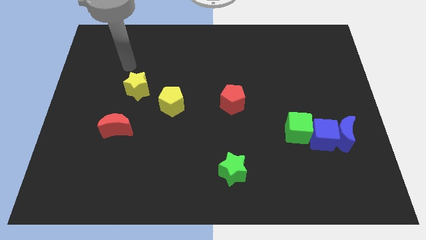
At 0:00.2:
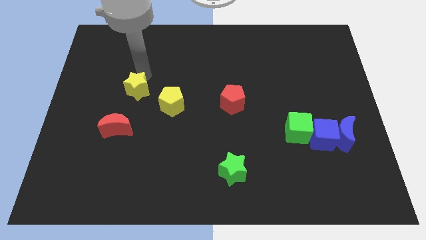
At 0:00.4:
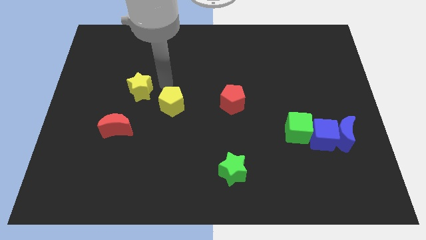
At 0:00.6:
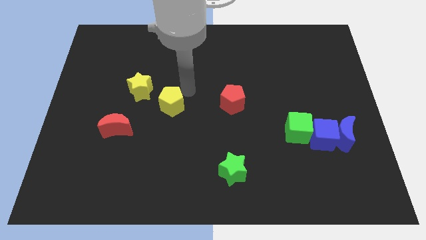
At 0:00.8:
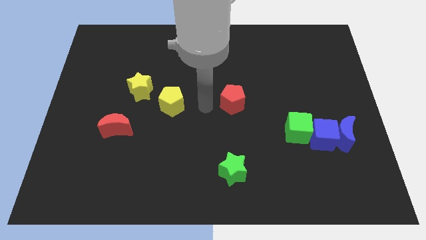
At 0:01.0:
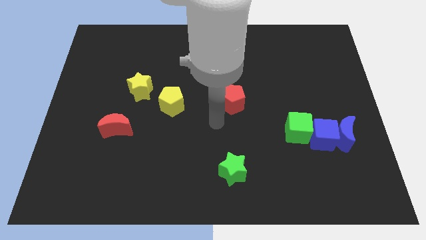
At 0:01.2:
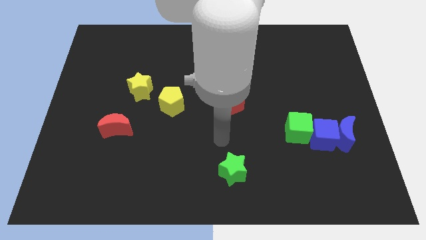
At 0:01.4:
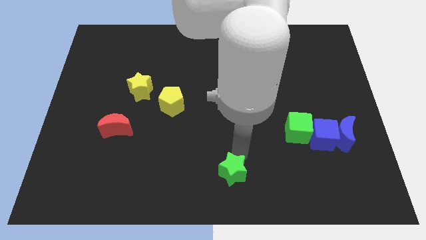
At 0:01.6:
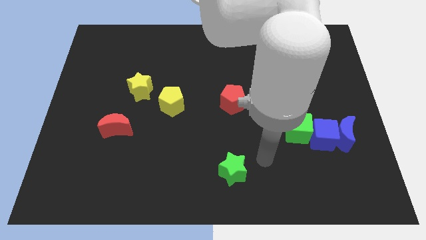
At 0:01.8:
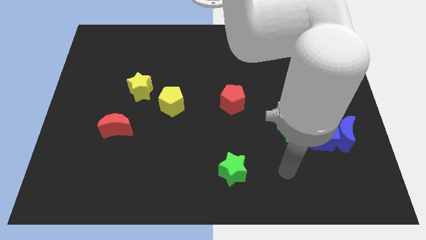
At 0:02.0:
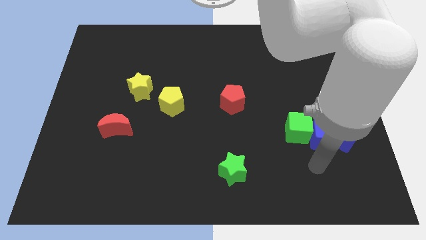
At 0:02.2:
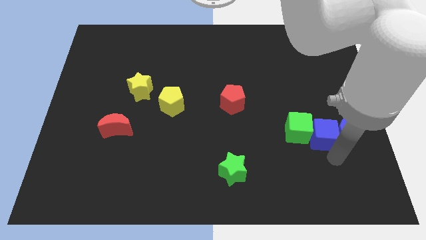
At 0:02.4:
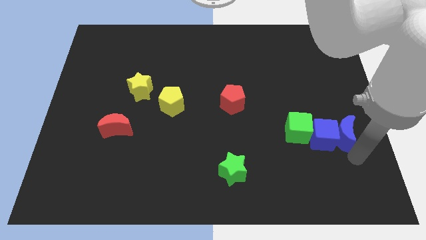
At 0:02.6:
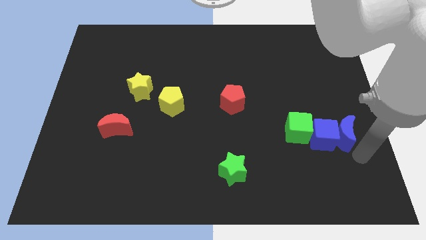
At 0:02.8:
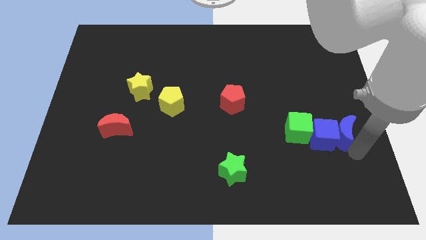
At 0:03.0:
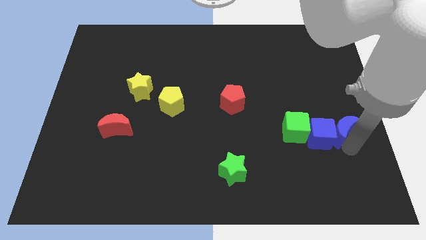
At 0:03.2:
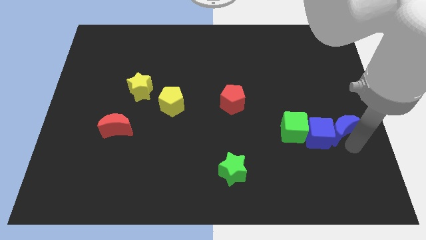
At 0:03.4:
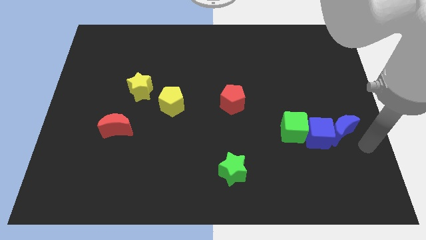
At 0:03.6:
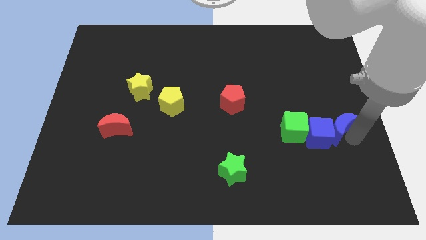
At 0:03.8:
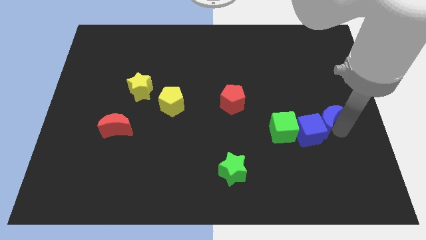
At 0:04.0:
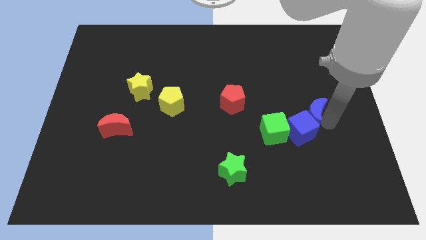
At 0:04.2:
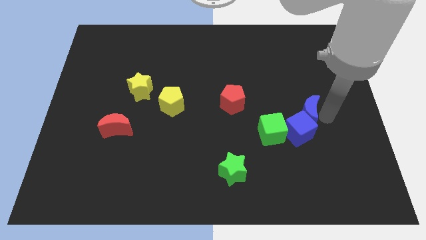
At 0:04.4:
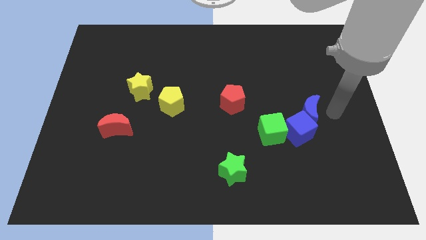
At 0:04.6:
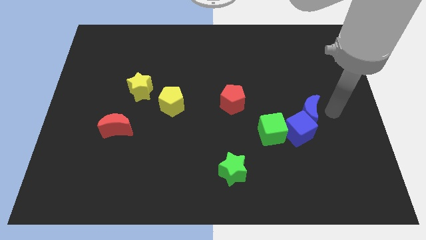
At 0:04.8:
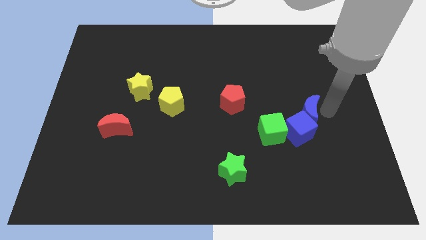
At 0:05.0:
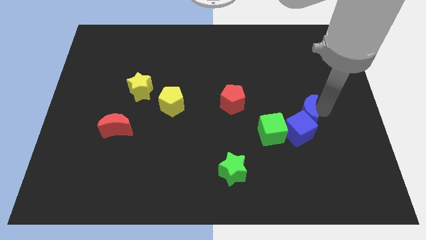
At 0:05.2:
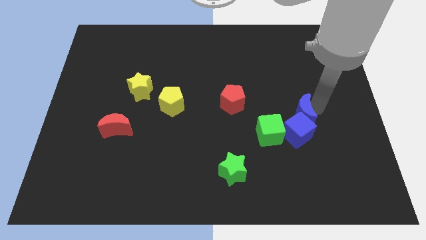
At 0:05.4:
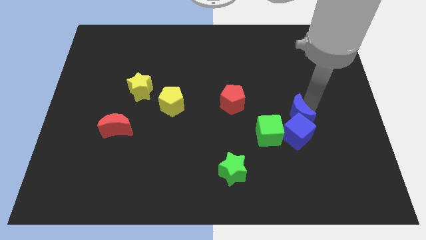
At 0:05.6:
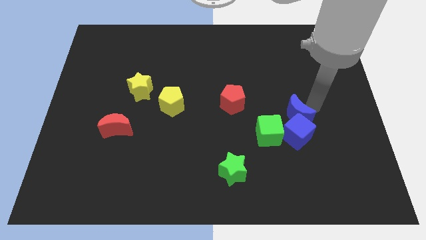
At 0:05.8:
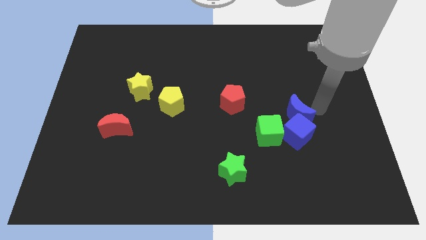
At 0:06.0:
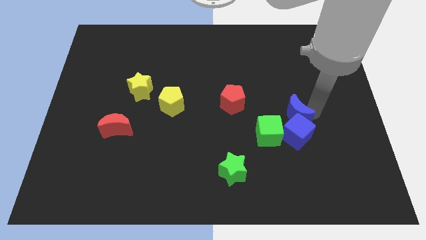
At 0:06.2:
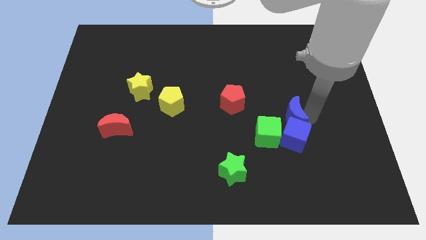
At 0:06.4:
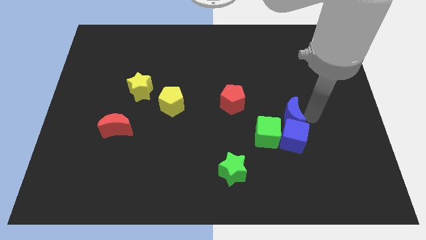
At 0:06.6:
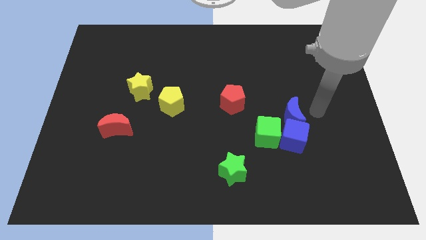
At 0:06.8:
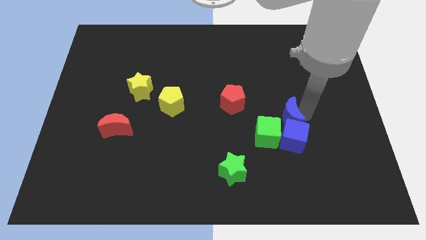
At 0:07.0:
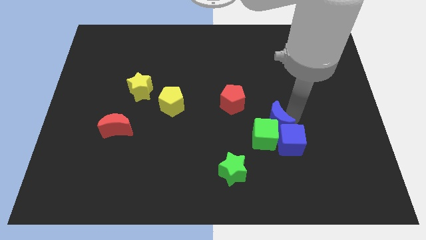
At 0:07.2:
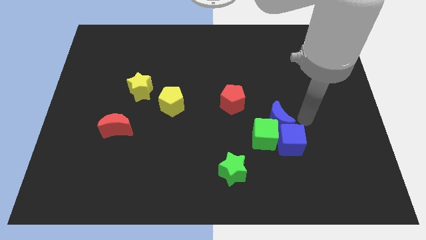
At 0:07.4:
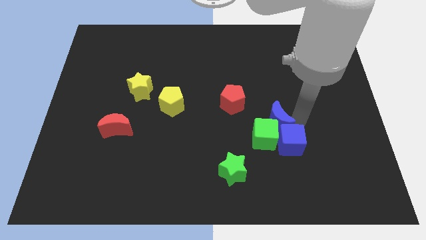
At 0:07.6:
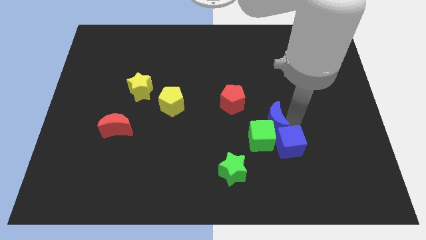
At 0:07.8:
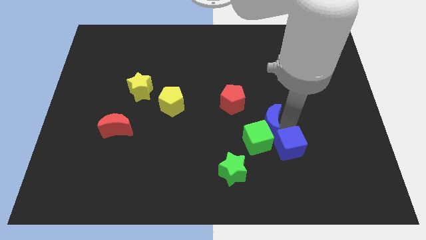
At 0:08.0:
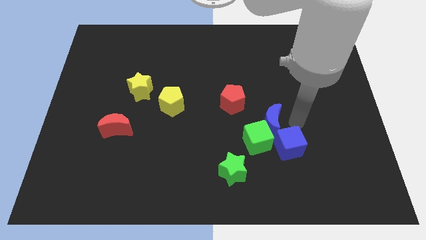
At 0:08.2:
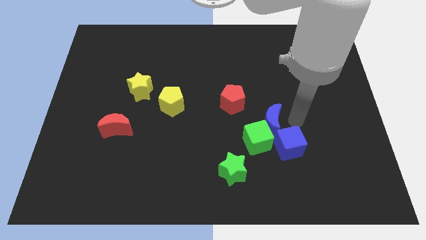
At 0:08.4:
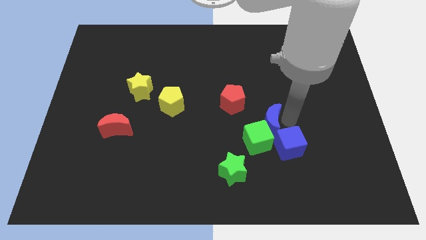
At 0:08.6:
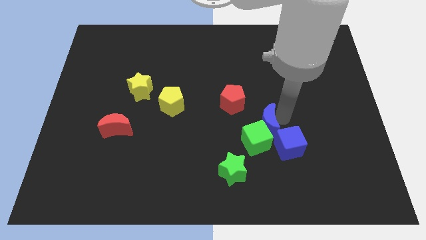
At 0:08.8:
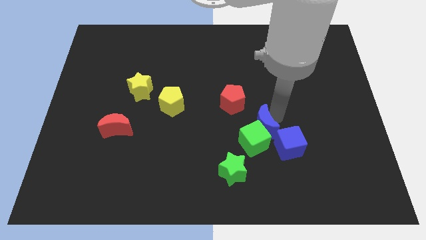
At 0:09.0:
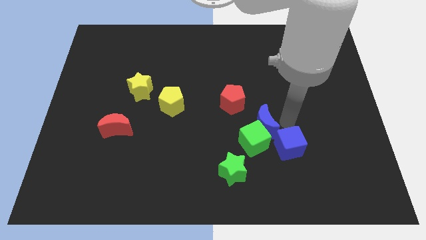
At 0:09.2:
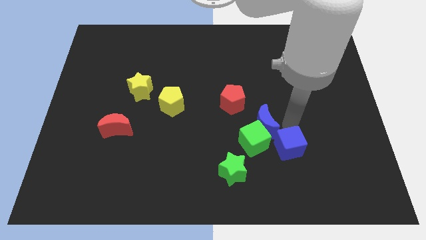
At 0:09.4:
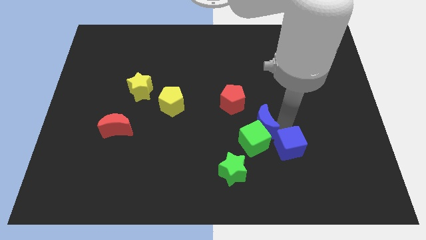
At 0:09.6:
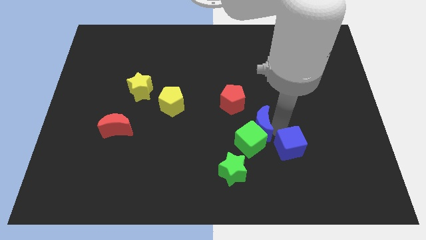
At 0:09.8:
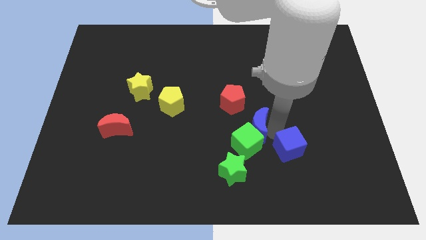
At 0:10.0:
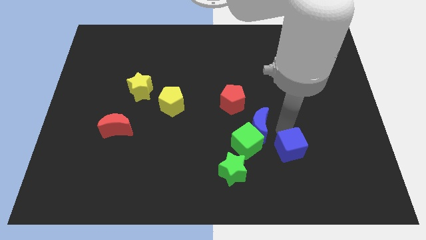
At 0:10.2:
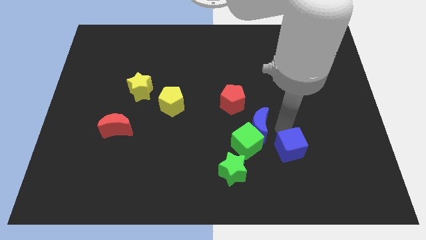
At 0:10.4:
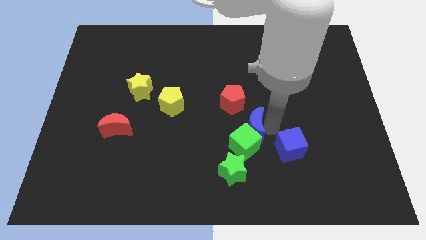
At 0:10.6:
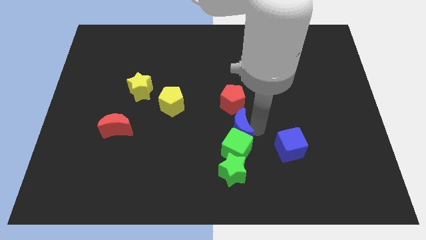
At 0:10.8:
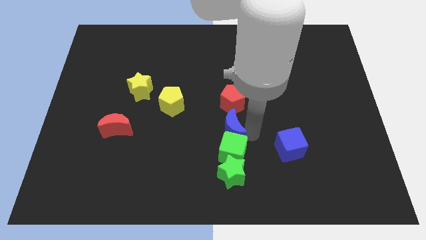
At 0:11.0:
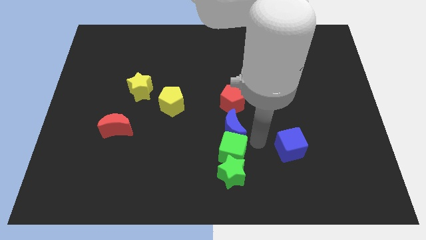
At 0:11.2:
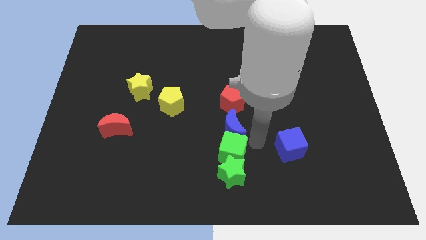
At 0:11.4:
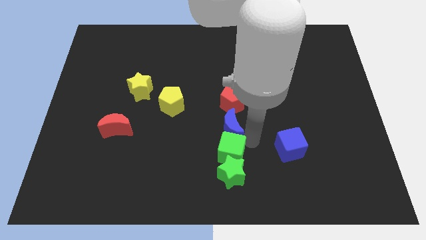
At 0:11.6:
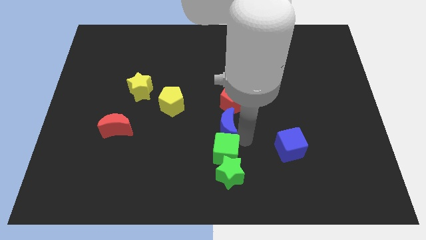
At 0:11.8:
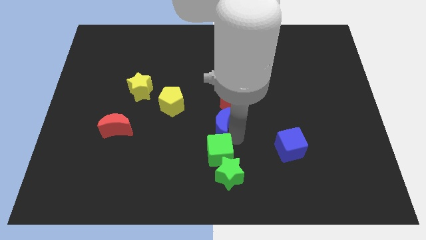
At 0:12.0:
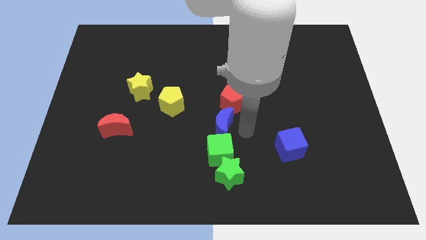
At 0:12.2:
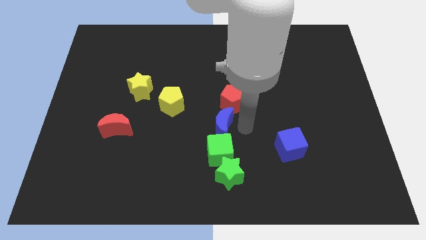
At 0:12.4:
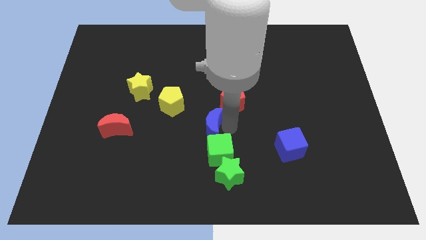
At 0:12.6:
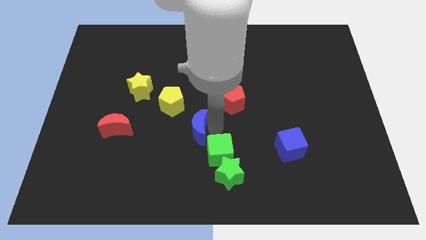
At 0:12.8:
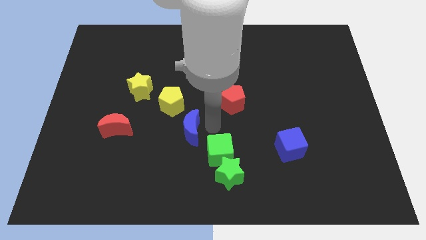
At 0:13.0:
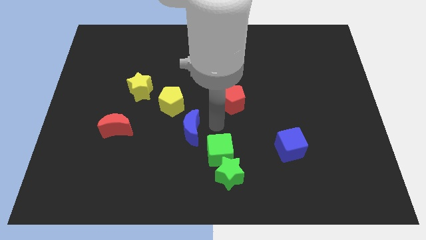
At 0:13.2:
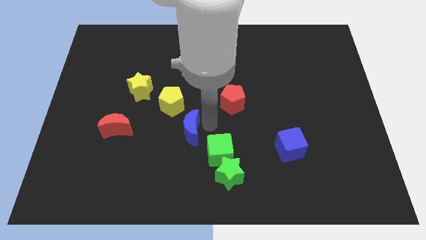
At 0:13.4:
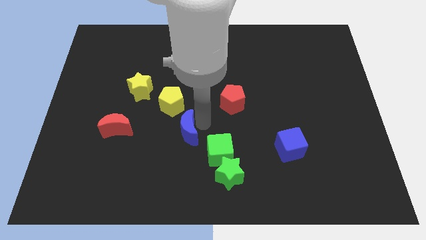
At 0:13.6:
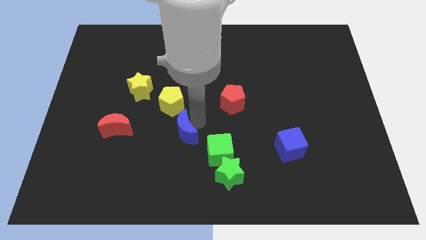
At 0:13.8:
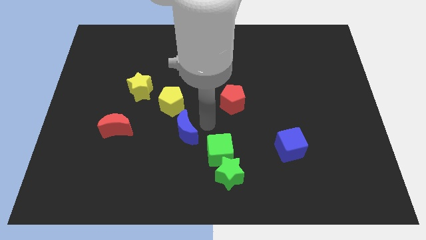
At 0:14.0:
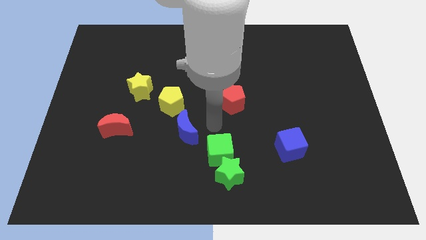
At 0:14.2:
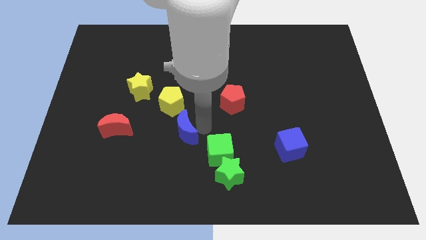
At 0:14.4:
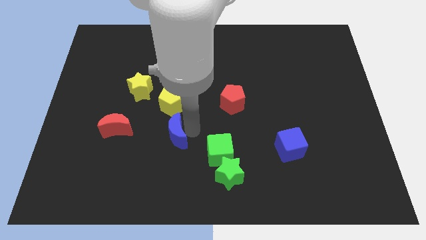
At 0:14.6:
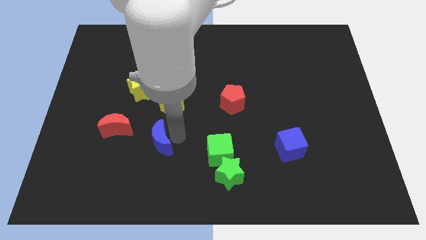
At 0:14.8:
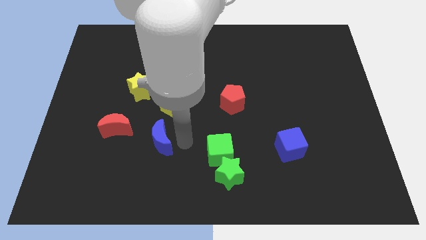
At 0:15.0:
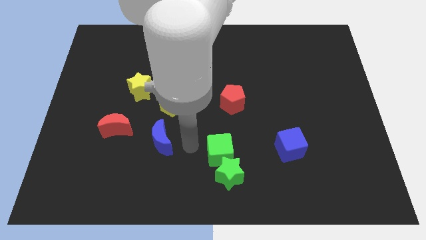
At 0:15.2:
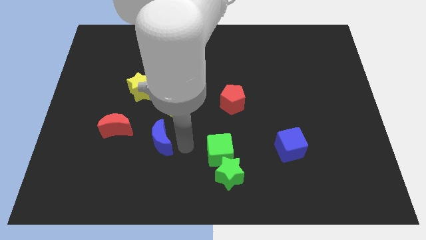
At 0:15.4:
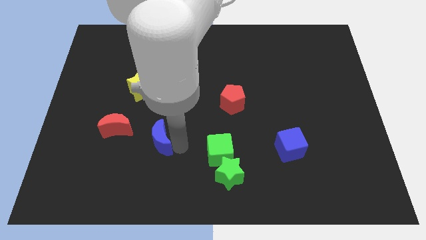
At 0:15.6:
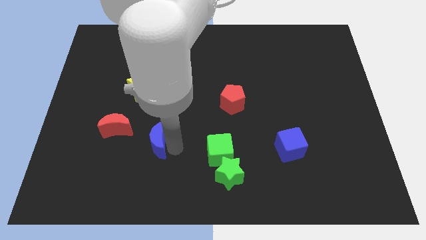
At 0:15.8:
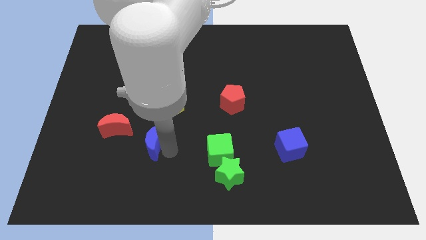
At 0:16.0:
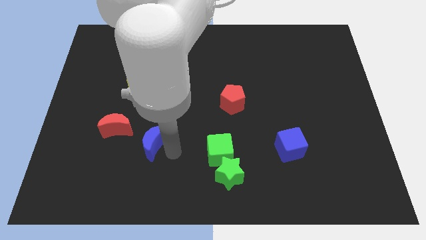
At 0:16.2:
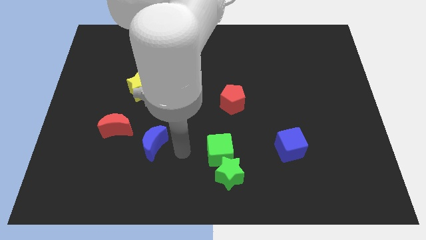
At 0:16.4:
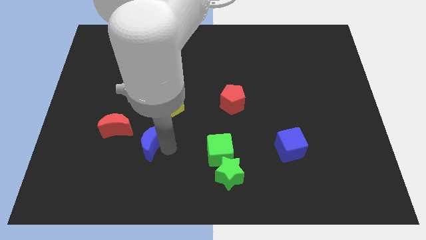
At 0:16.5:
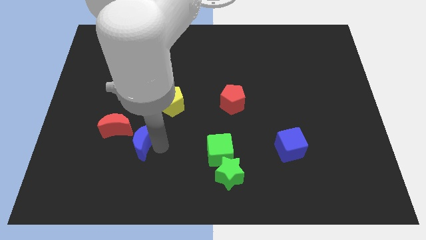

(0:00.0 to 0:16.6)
push the blue moon to the bottom of the yellow star
